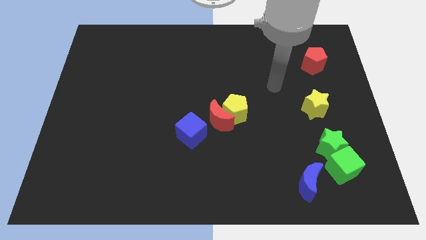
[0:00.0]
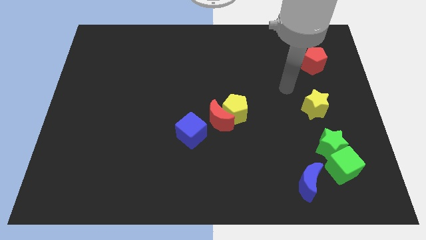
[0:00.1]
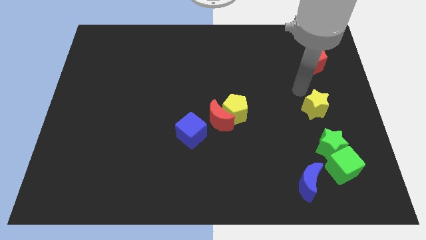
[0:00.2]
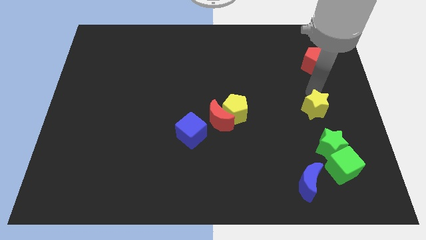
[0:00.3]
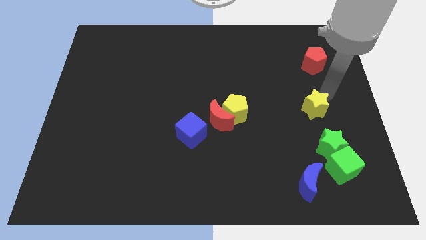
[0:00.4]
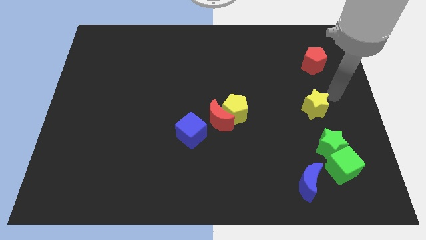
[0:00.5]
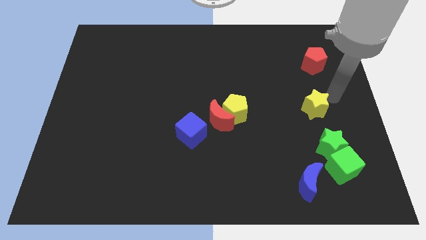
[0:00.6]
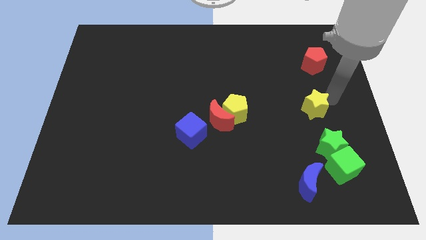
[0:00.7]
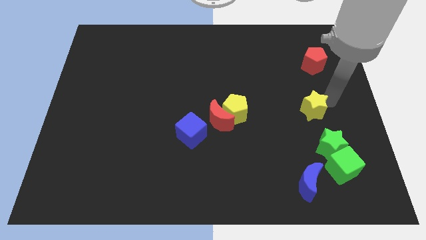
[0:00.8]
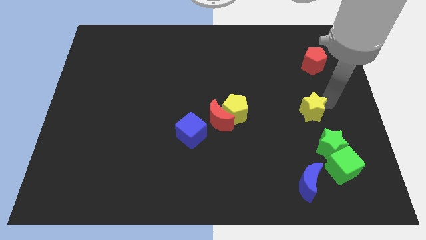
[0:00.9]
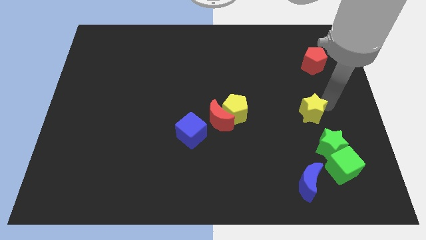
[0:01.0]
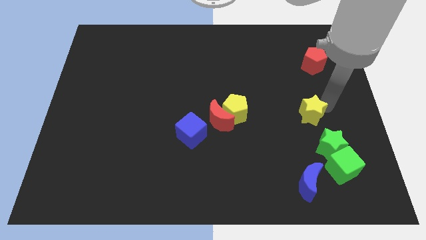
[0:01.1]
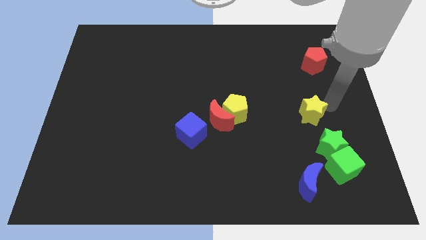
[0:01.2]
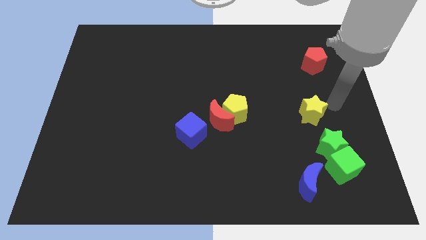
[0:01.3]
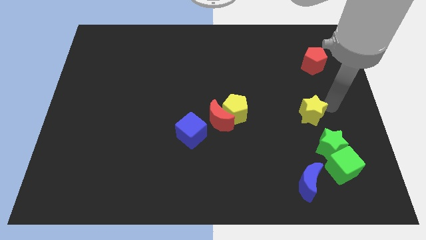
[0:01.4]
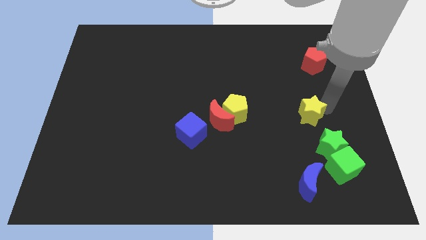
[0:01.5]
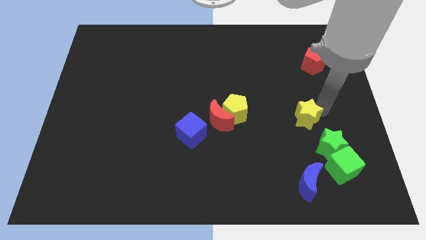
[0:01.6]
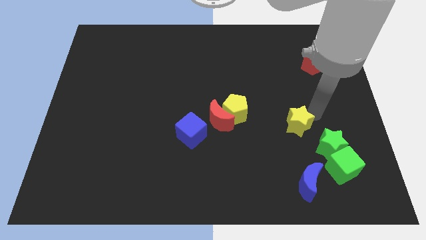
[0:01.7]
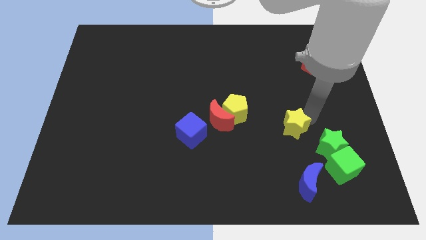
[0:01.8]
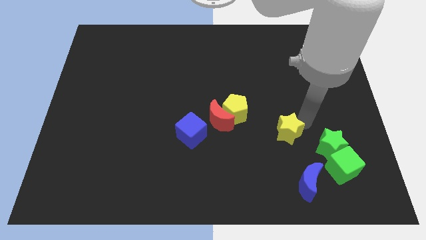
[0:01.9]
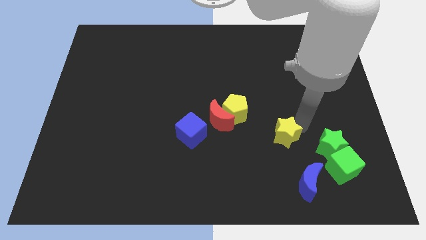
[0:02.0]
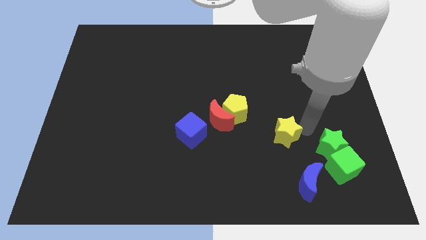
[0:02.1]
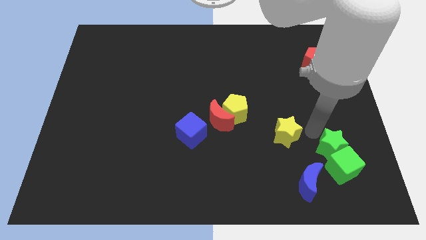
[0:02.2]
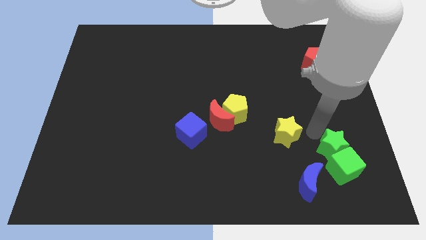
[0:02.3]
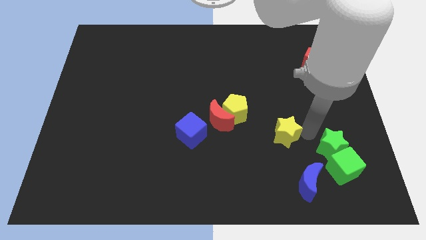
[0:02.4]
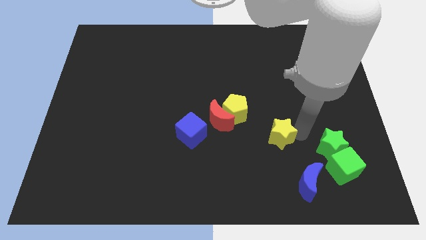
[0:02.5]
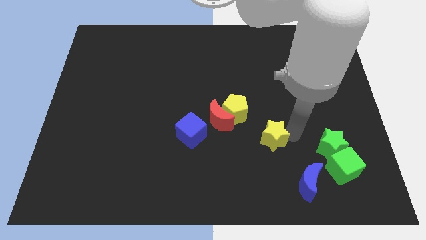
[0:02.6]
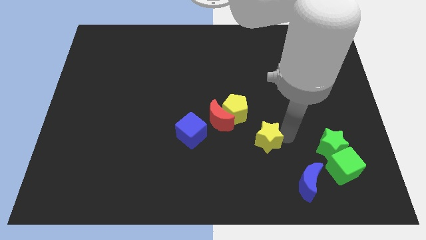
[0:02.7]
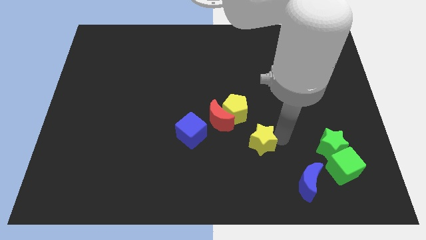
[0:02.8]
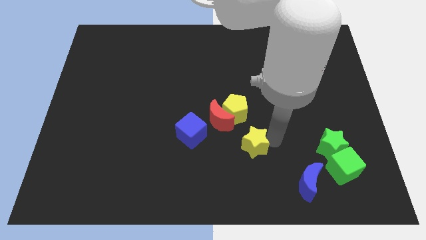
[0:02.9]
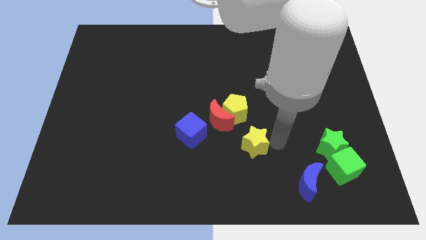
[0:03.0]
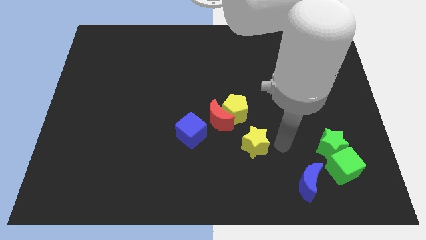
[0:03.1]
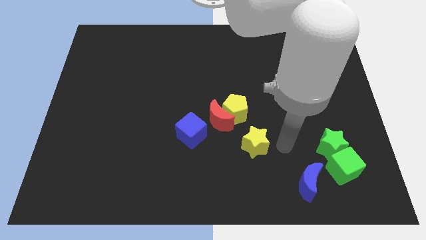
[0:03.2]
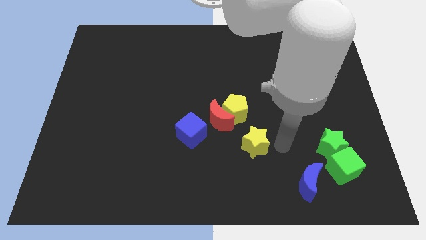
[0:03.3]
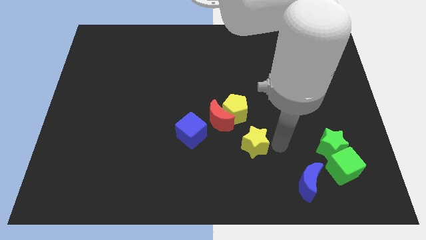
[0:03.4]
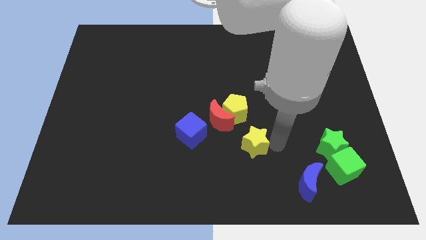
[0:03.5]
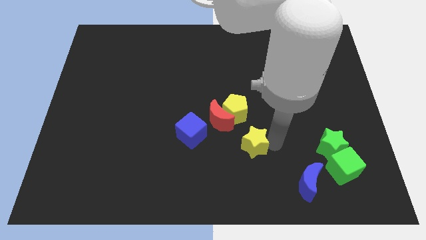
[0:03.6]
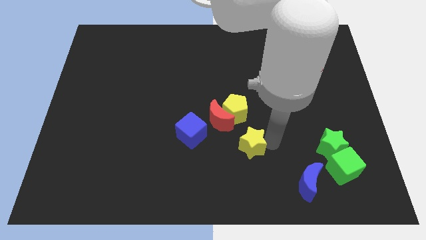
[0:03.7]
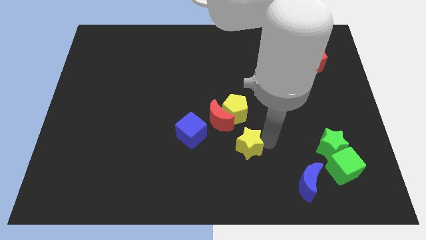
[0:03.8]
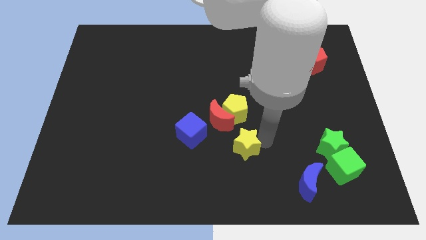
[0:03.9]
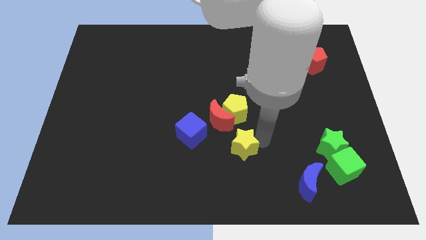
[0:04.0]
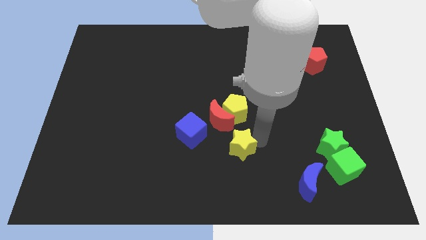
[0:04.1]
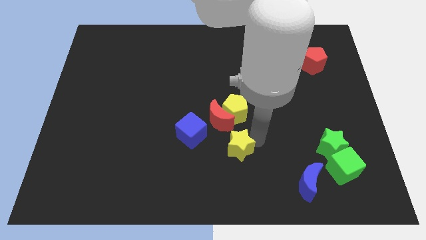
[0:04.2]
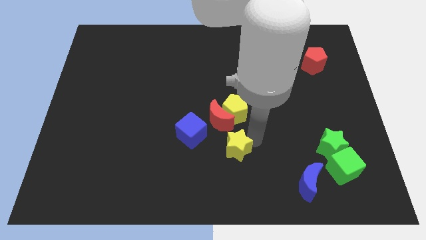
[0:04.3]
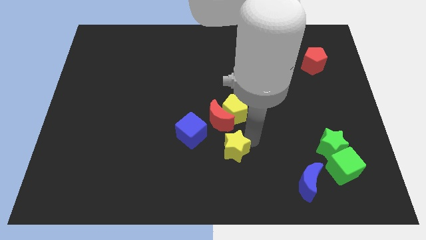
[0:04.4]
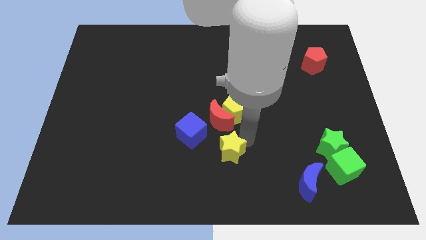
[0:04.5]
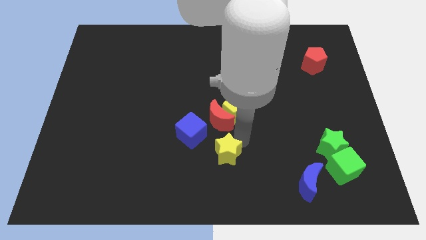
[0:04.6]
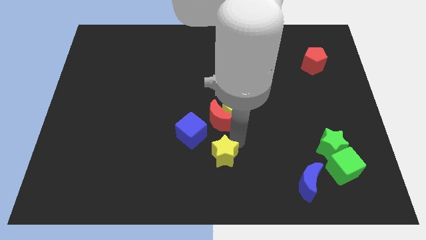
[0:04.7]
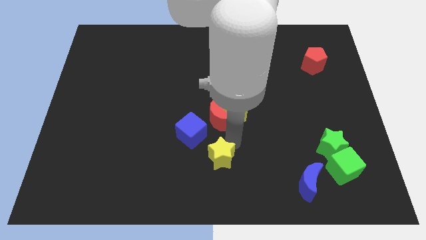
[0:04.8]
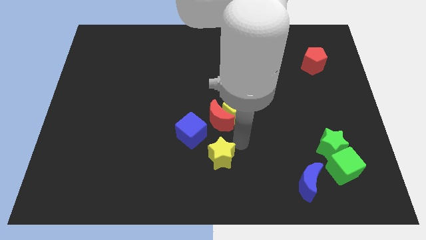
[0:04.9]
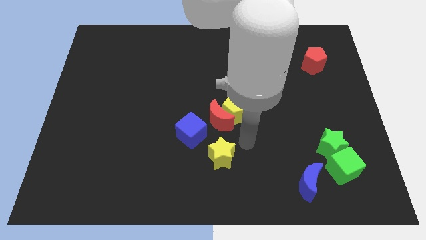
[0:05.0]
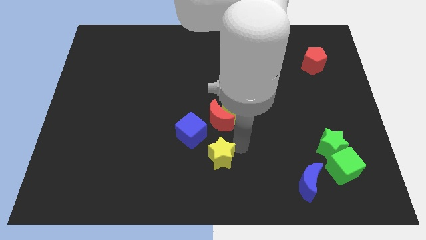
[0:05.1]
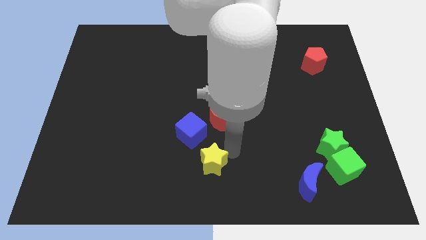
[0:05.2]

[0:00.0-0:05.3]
push the yellow star to the bottom of the blue cube

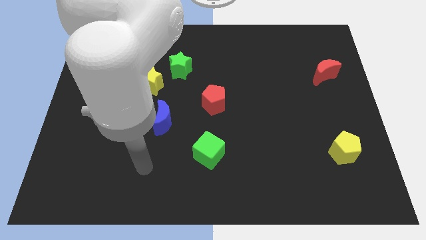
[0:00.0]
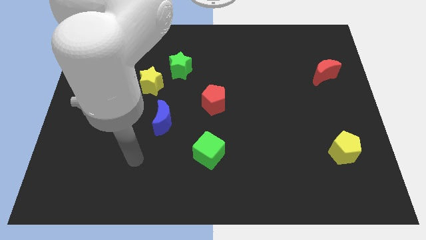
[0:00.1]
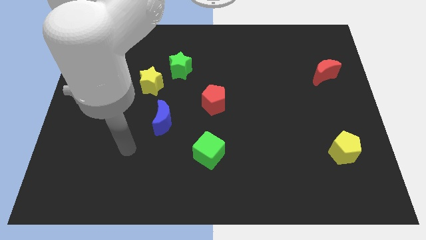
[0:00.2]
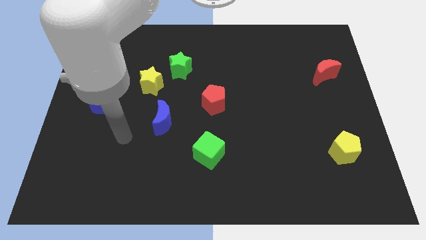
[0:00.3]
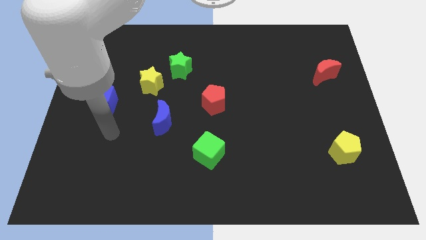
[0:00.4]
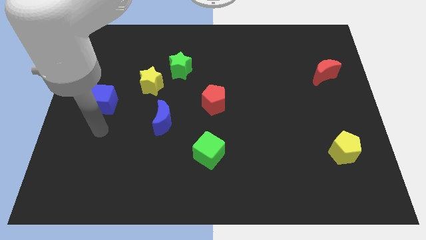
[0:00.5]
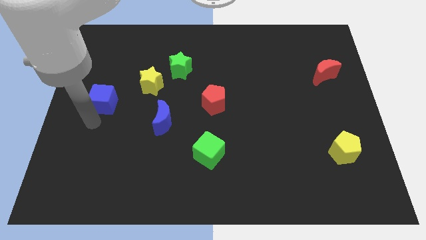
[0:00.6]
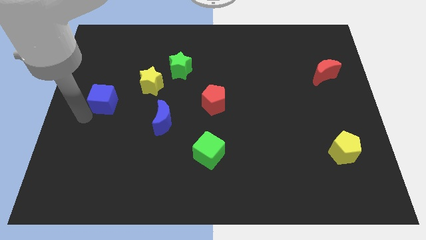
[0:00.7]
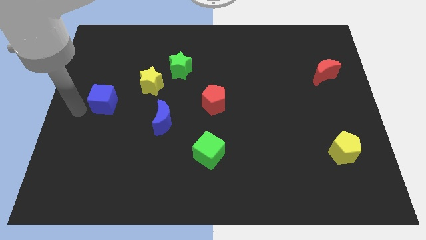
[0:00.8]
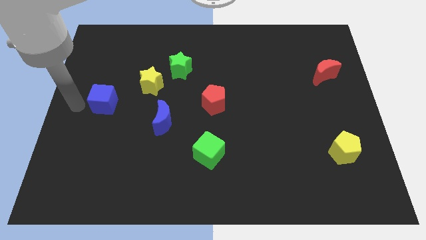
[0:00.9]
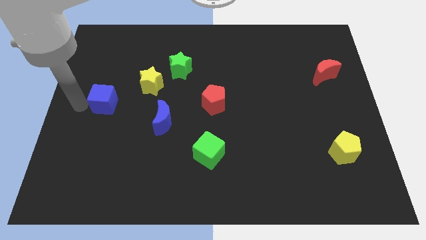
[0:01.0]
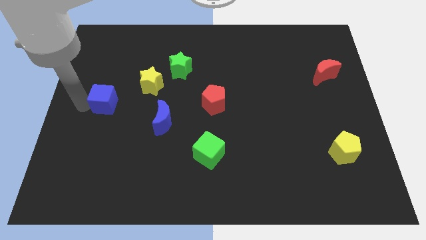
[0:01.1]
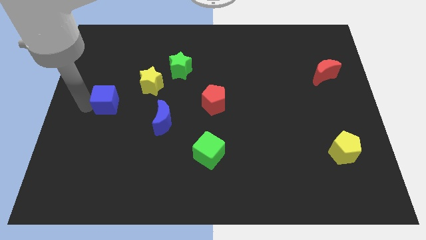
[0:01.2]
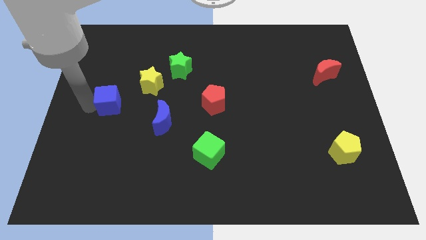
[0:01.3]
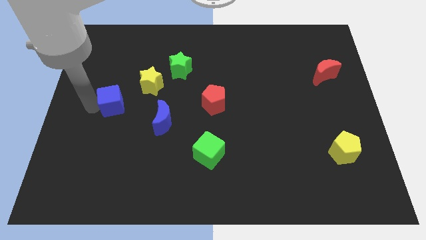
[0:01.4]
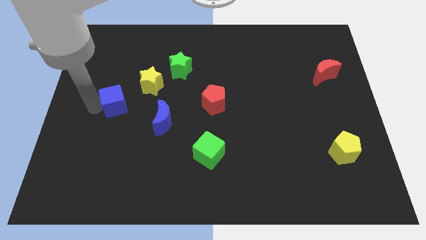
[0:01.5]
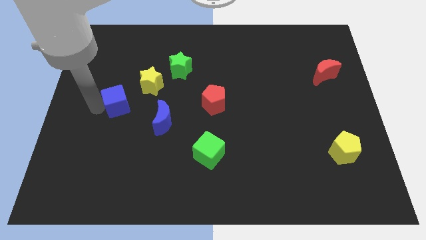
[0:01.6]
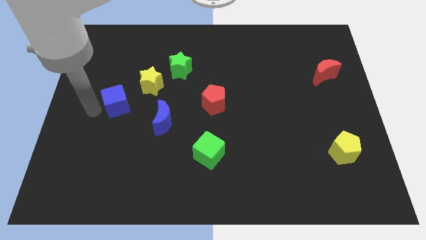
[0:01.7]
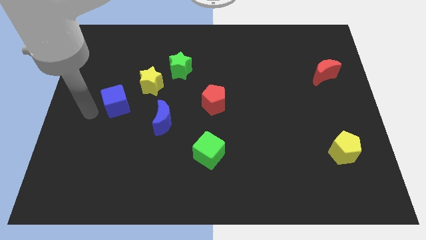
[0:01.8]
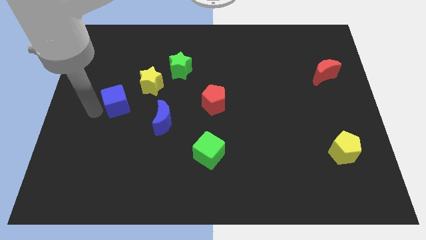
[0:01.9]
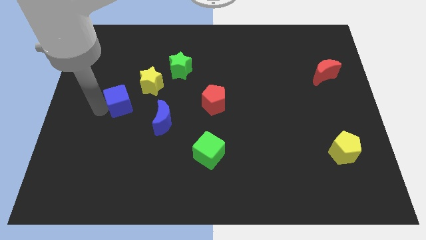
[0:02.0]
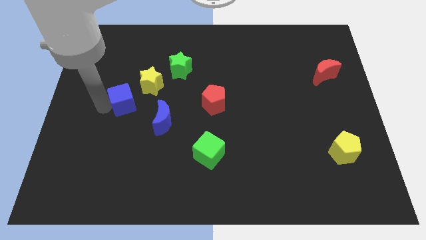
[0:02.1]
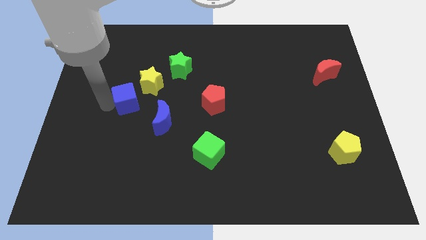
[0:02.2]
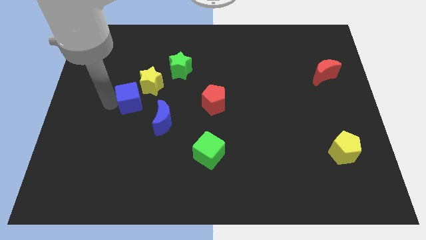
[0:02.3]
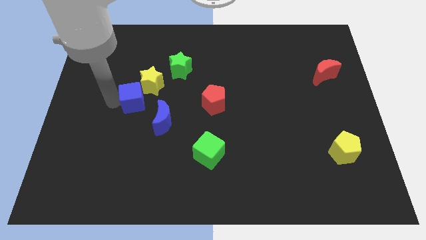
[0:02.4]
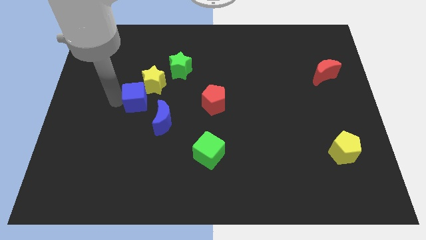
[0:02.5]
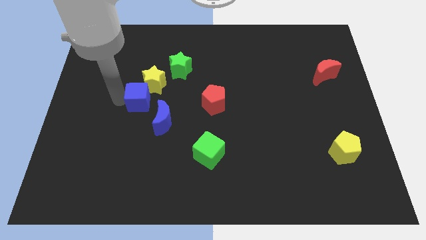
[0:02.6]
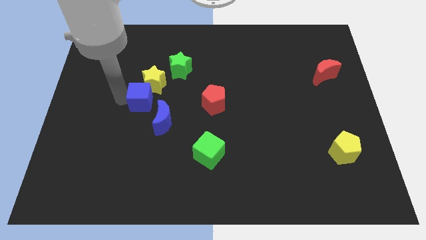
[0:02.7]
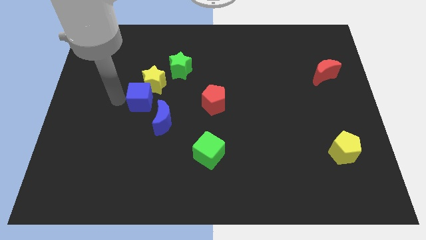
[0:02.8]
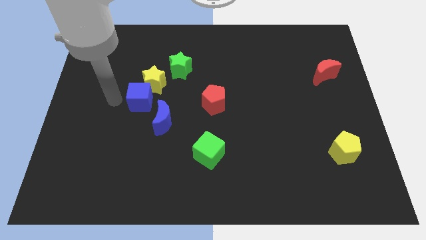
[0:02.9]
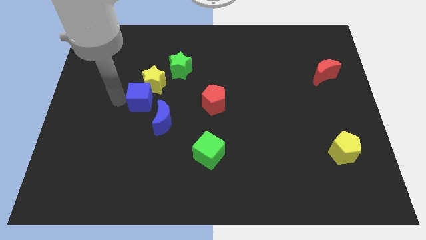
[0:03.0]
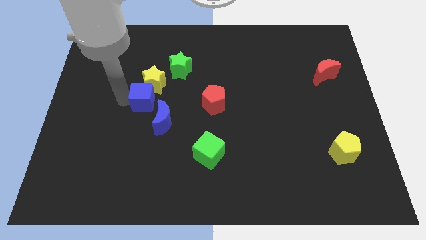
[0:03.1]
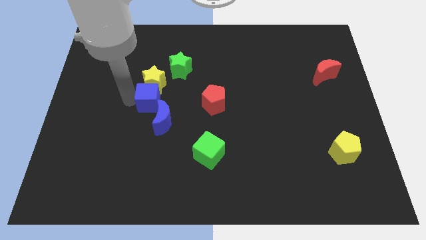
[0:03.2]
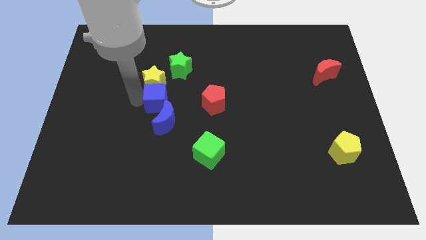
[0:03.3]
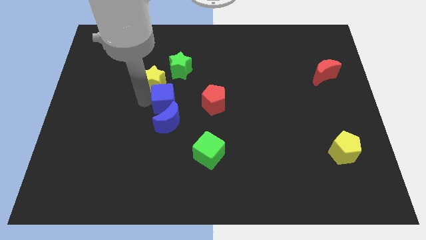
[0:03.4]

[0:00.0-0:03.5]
put the blue cube to the bottom of the green star
